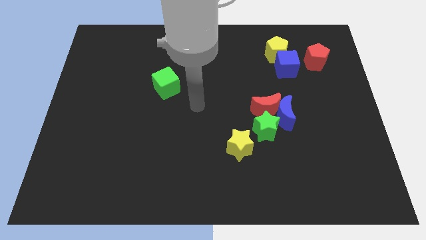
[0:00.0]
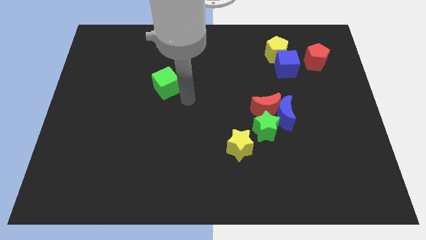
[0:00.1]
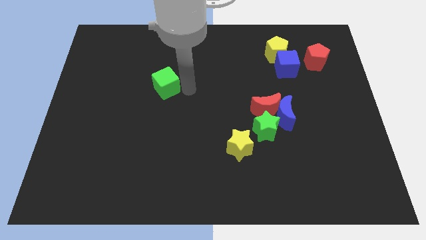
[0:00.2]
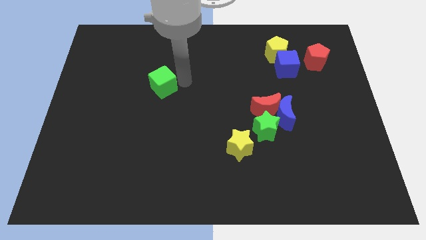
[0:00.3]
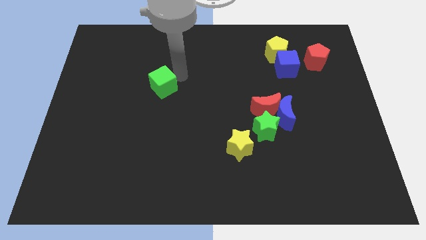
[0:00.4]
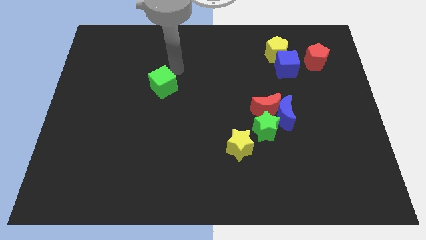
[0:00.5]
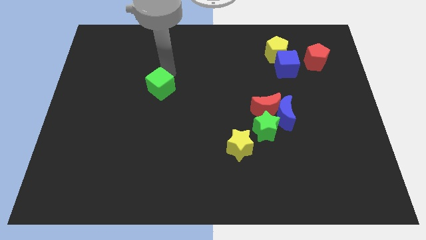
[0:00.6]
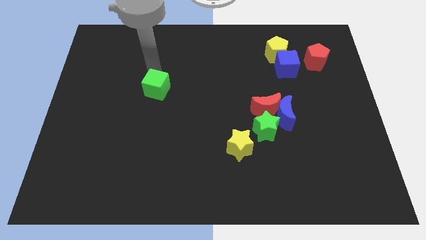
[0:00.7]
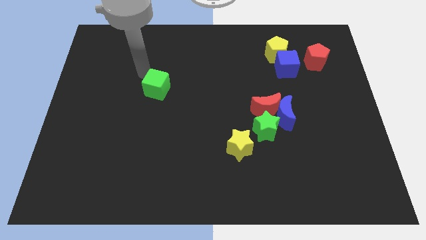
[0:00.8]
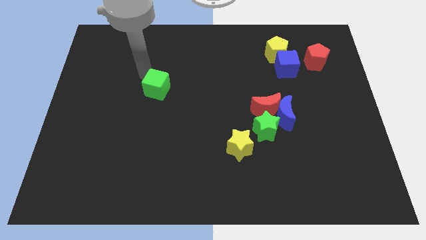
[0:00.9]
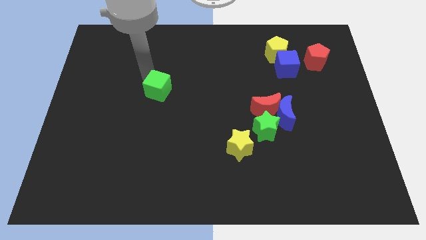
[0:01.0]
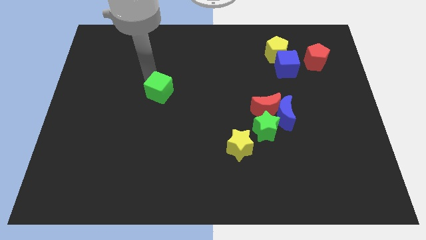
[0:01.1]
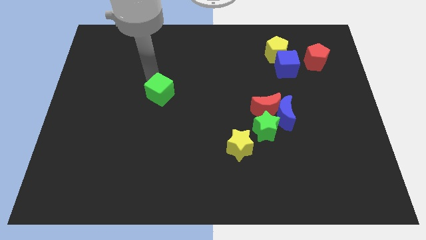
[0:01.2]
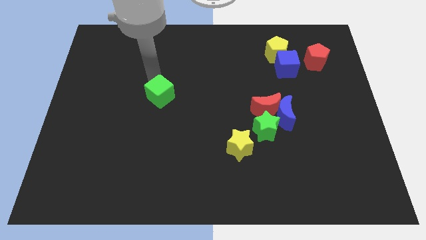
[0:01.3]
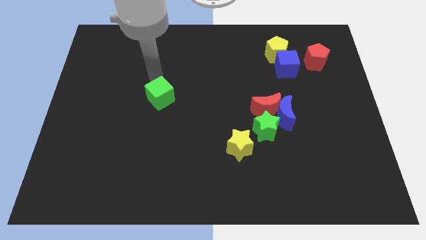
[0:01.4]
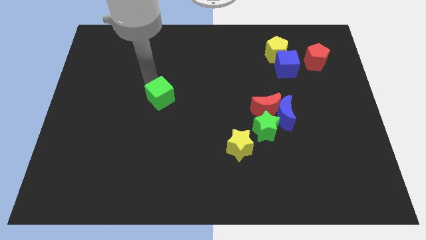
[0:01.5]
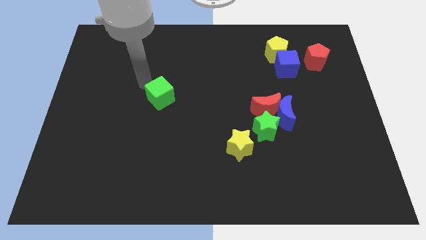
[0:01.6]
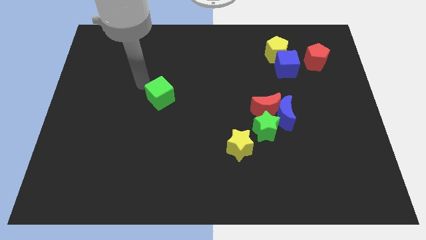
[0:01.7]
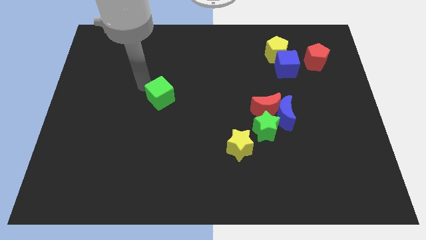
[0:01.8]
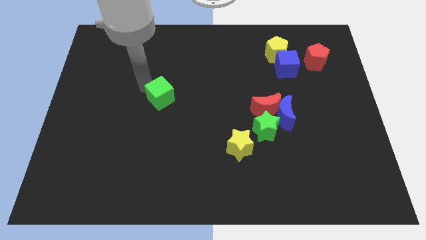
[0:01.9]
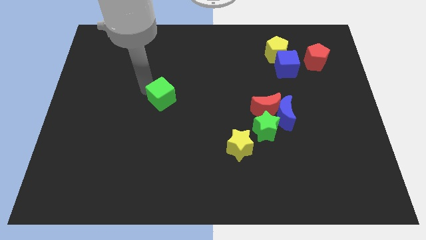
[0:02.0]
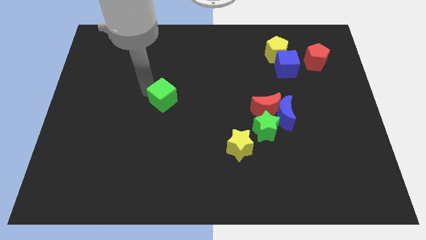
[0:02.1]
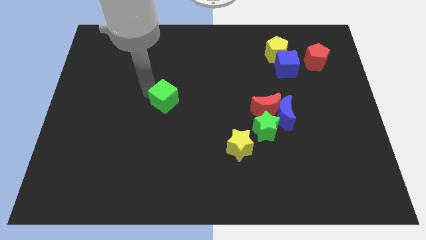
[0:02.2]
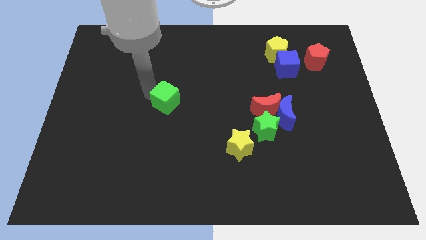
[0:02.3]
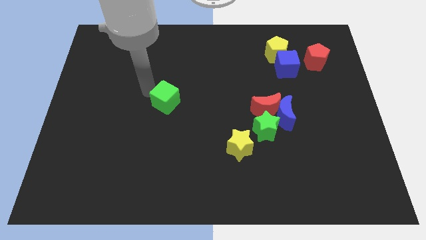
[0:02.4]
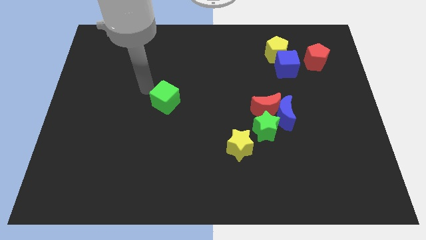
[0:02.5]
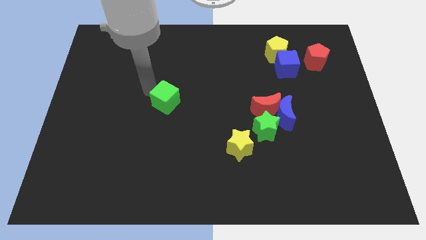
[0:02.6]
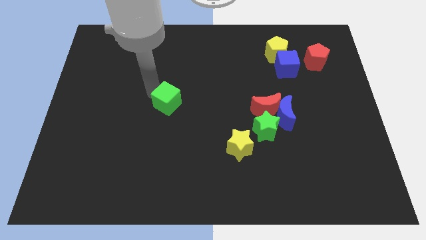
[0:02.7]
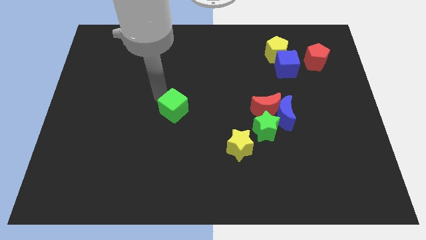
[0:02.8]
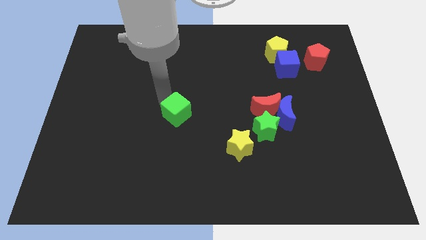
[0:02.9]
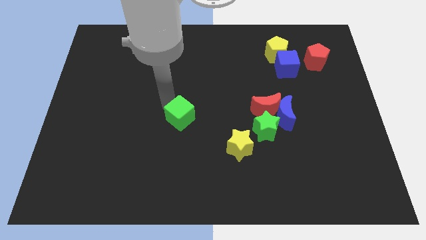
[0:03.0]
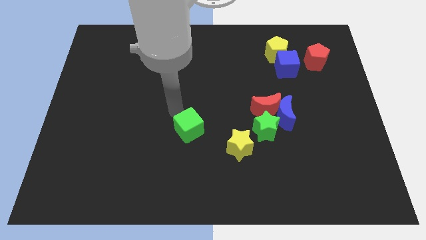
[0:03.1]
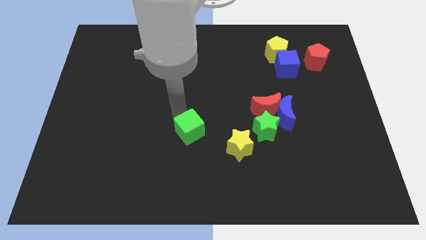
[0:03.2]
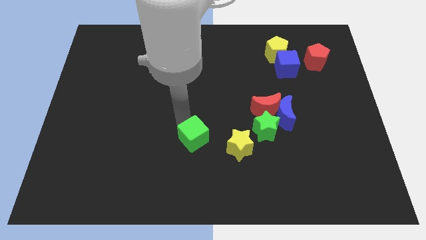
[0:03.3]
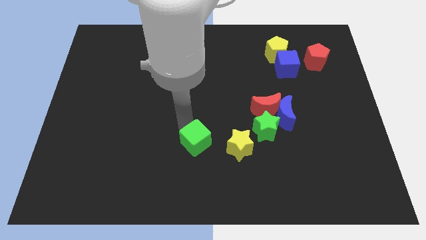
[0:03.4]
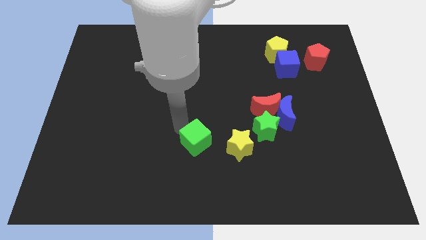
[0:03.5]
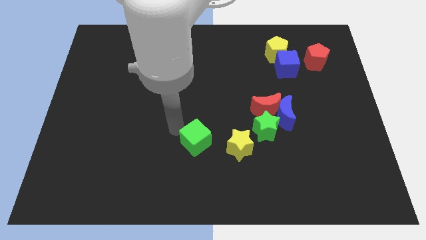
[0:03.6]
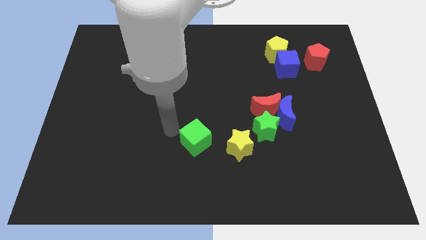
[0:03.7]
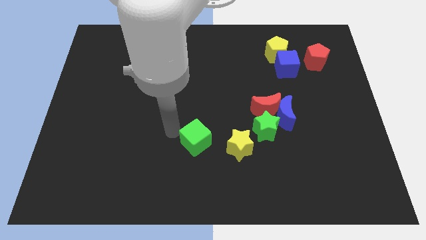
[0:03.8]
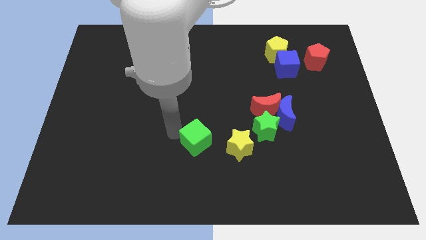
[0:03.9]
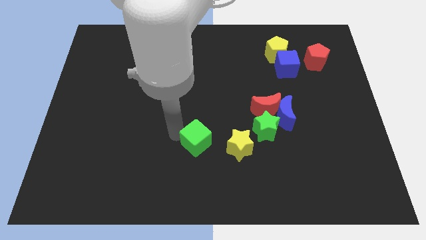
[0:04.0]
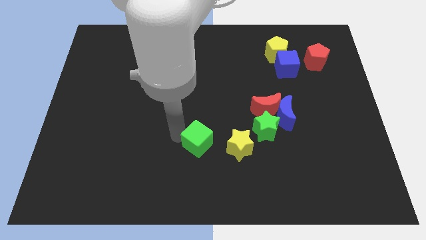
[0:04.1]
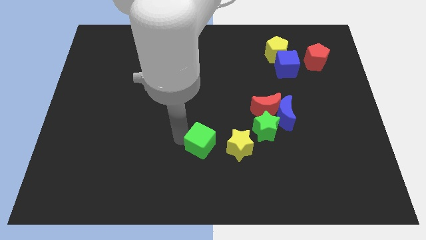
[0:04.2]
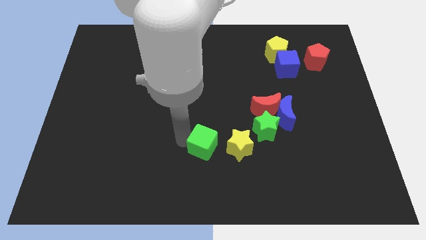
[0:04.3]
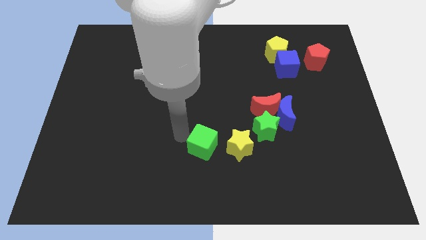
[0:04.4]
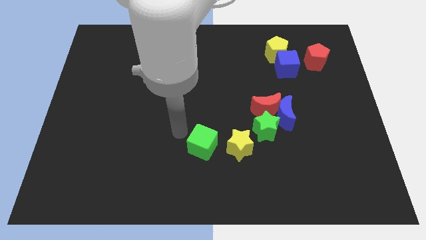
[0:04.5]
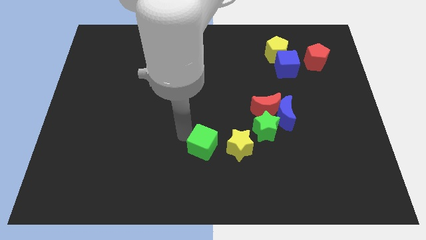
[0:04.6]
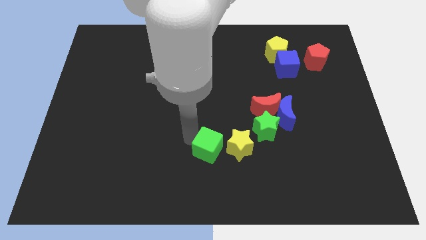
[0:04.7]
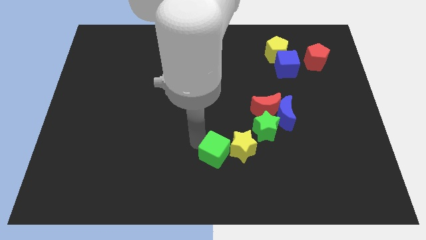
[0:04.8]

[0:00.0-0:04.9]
slide the green cube down and to the right diagonally

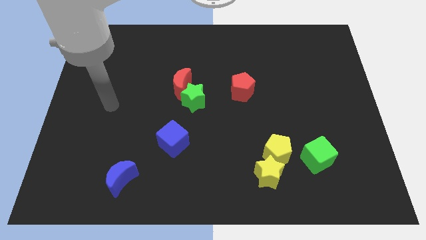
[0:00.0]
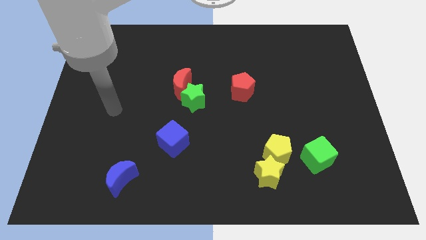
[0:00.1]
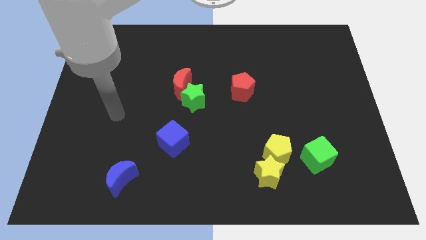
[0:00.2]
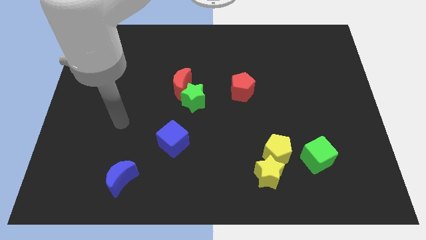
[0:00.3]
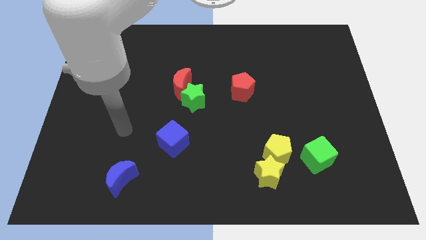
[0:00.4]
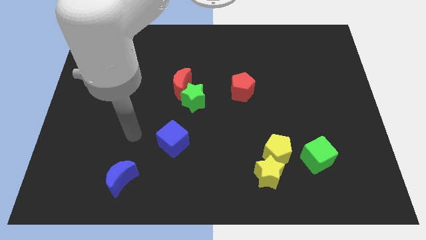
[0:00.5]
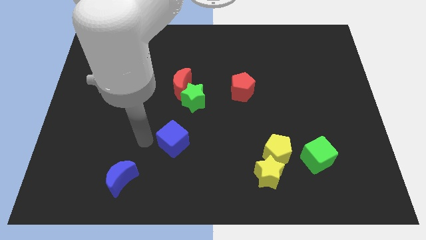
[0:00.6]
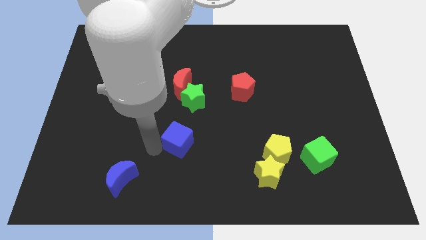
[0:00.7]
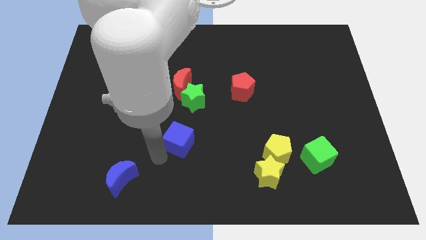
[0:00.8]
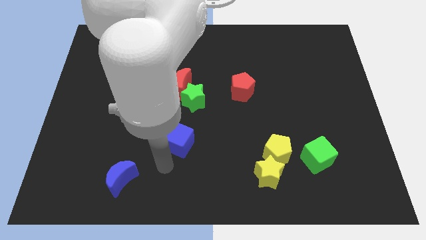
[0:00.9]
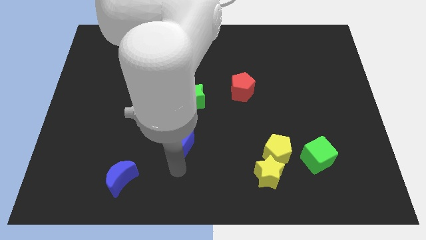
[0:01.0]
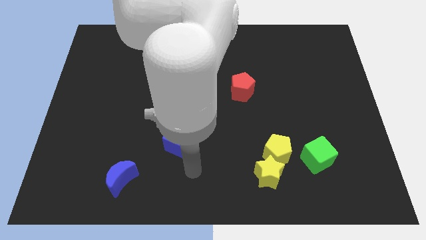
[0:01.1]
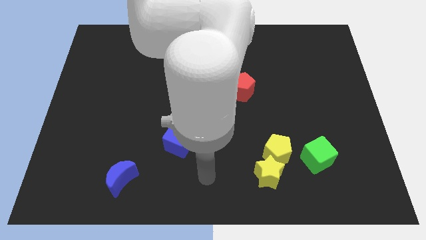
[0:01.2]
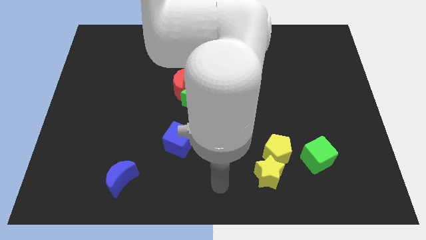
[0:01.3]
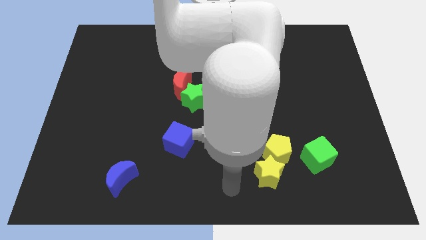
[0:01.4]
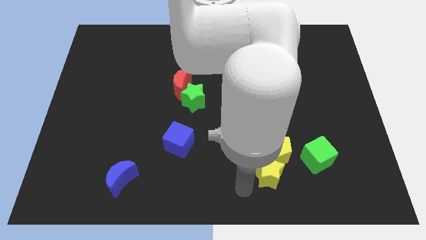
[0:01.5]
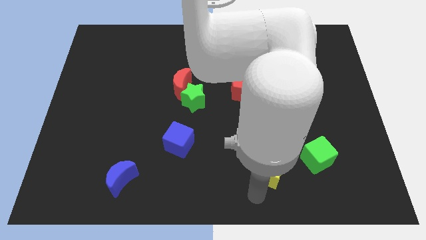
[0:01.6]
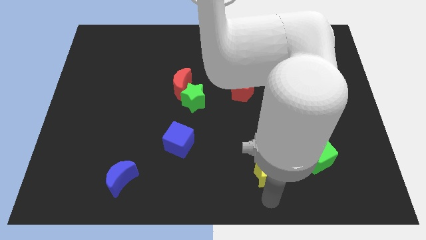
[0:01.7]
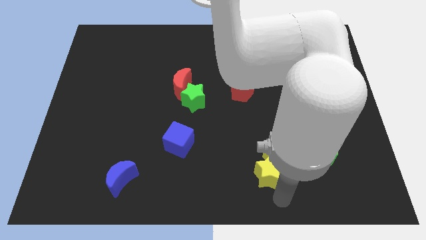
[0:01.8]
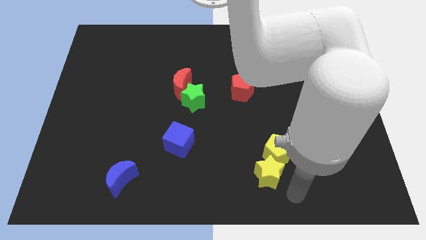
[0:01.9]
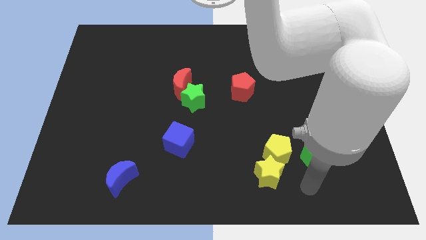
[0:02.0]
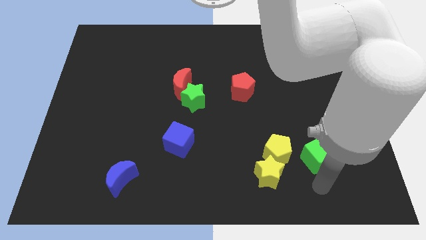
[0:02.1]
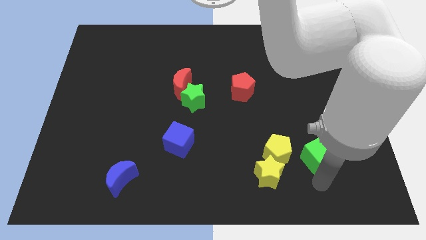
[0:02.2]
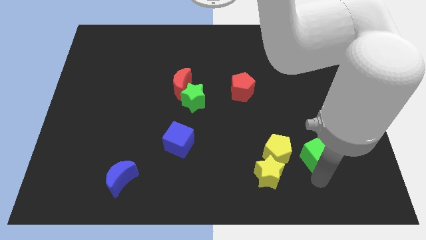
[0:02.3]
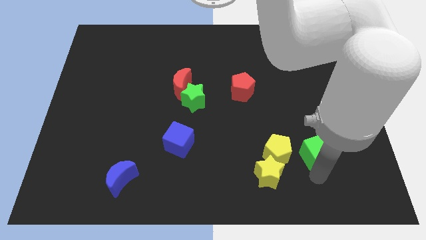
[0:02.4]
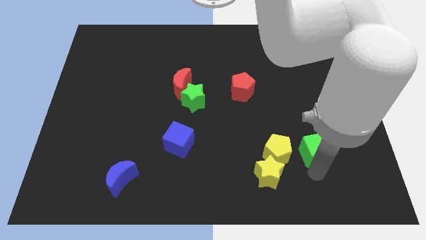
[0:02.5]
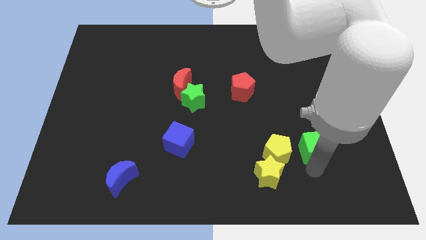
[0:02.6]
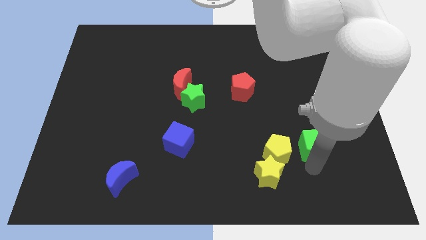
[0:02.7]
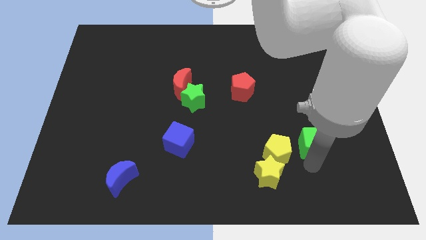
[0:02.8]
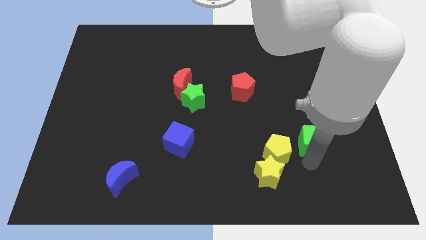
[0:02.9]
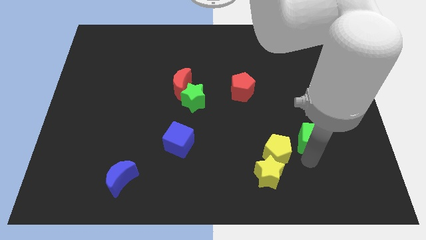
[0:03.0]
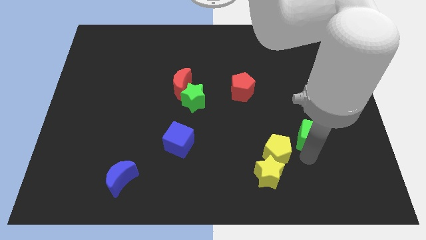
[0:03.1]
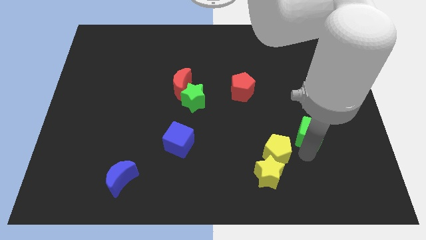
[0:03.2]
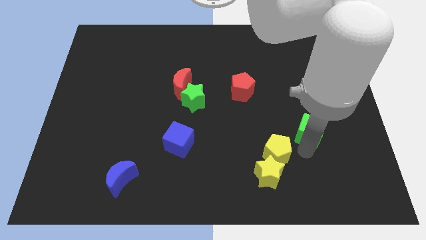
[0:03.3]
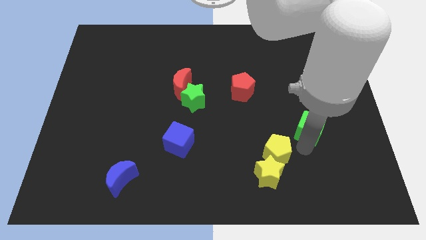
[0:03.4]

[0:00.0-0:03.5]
slightly push the green cube upwards
